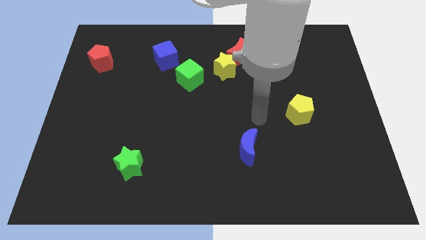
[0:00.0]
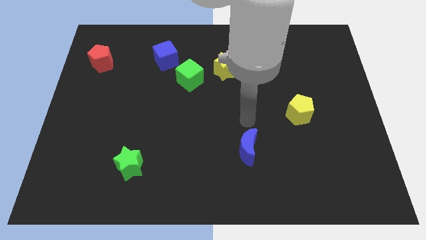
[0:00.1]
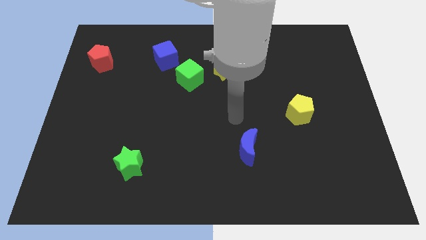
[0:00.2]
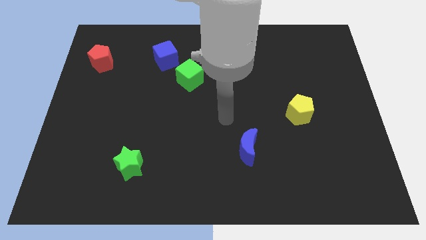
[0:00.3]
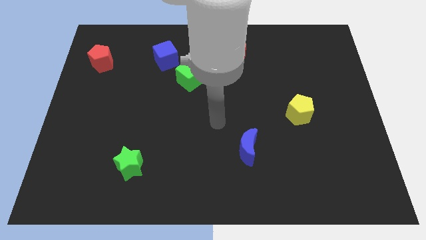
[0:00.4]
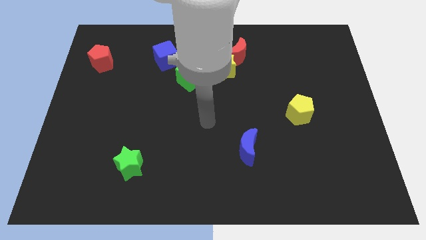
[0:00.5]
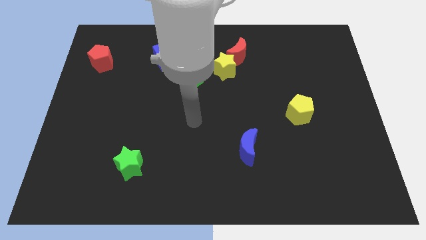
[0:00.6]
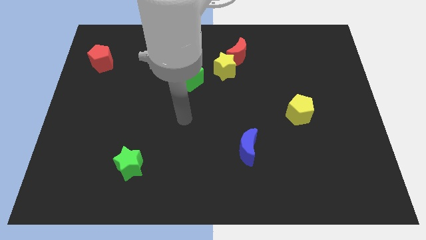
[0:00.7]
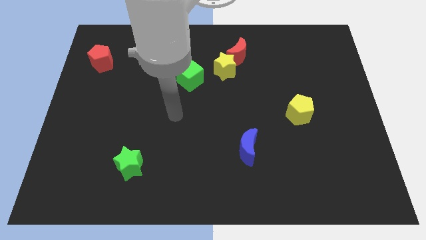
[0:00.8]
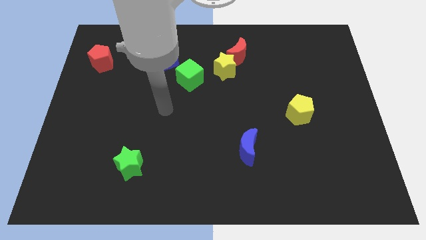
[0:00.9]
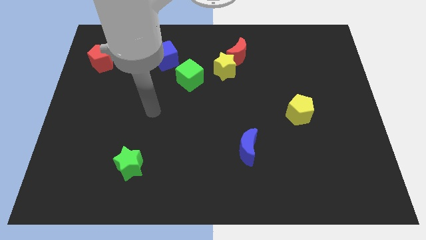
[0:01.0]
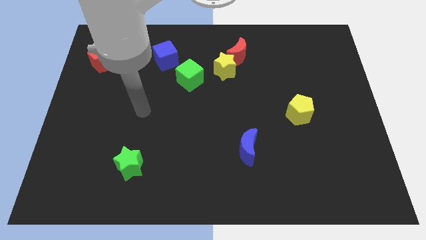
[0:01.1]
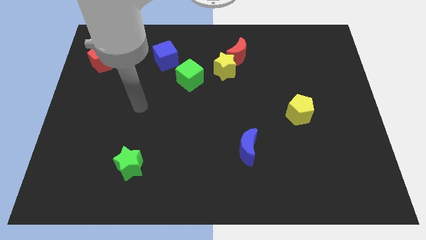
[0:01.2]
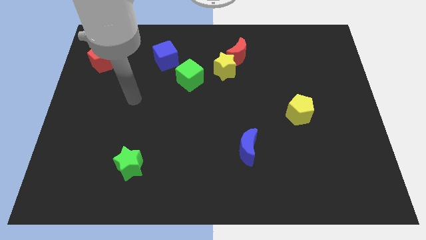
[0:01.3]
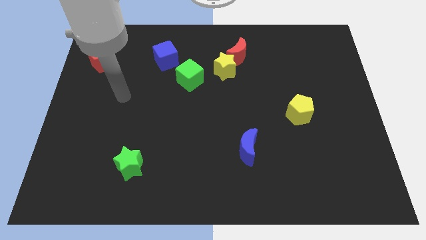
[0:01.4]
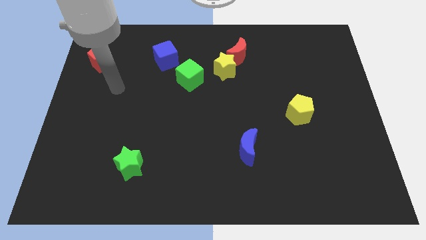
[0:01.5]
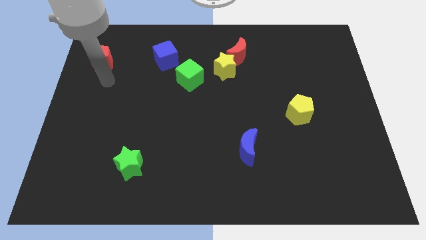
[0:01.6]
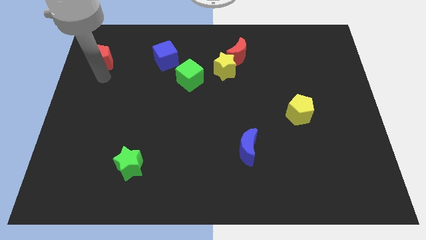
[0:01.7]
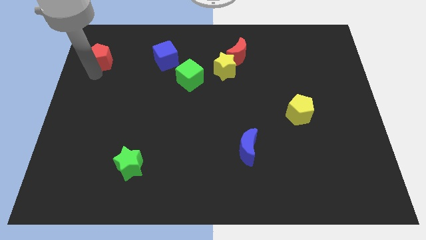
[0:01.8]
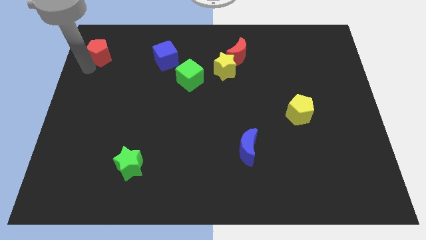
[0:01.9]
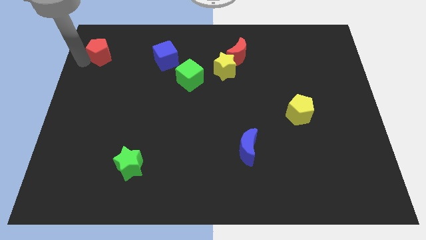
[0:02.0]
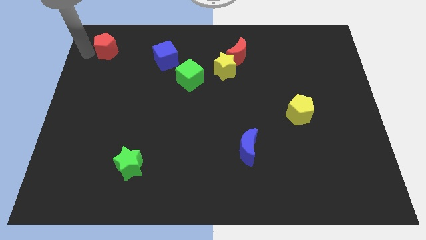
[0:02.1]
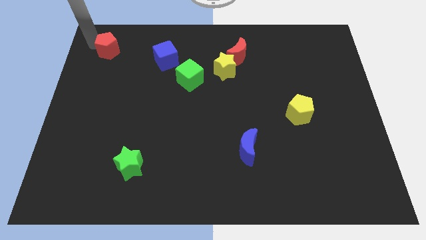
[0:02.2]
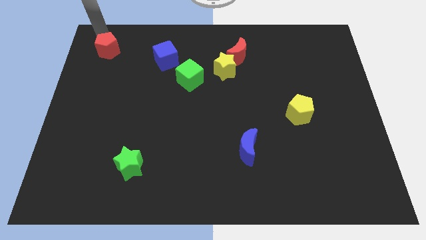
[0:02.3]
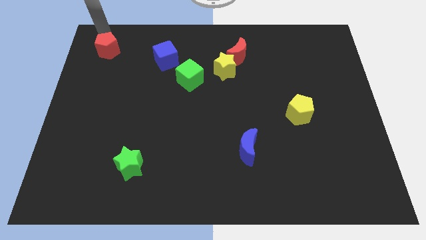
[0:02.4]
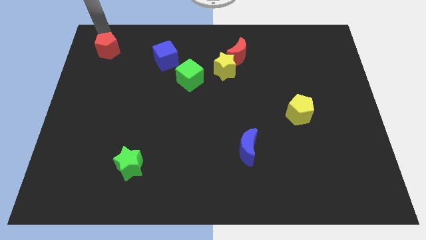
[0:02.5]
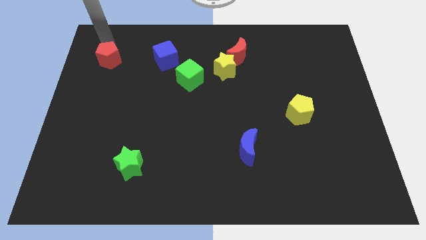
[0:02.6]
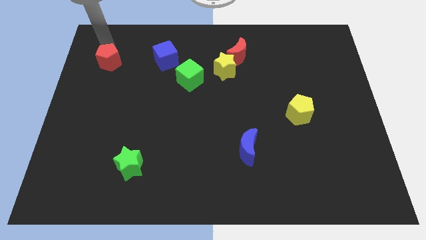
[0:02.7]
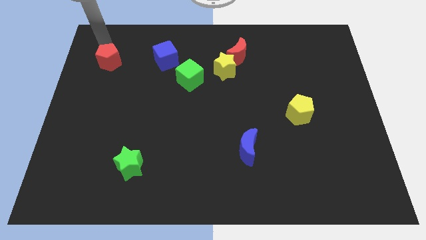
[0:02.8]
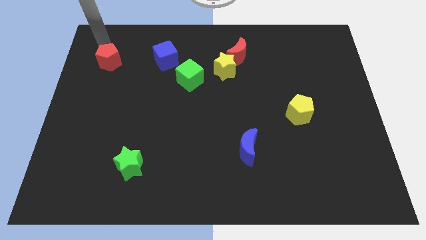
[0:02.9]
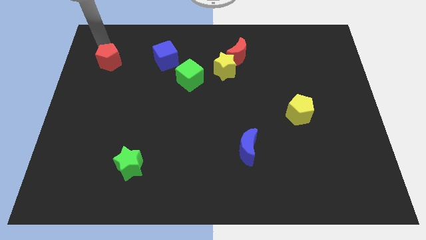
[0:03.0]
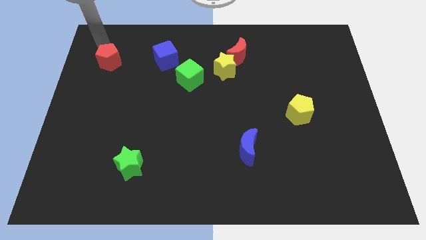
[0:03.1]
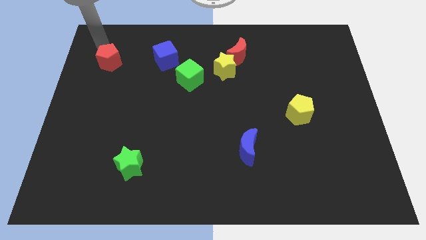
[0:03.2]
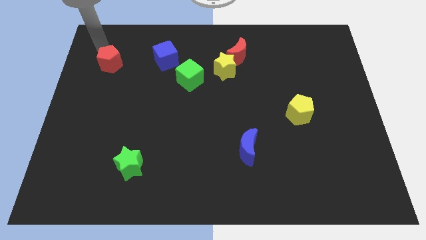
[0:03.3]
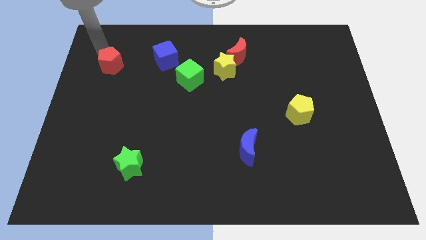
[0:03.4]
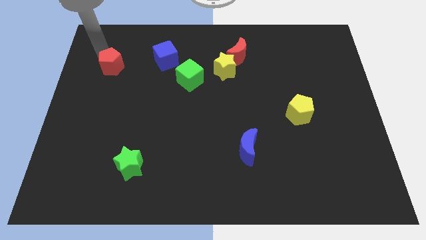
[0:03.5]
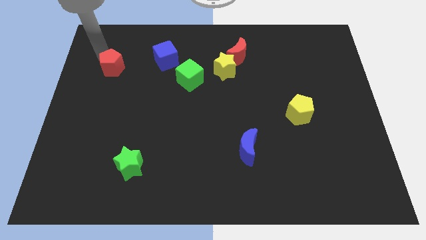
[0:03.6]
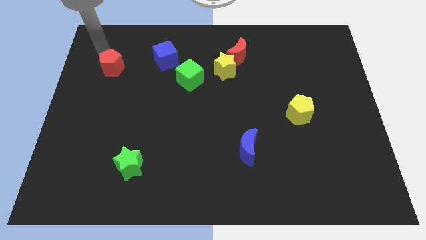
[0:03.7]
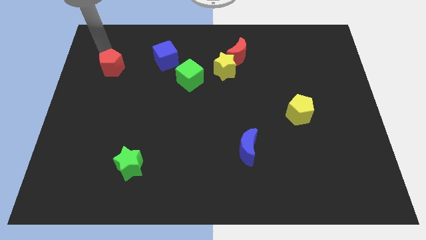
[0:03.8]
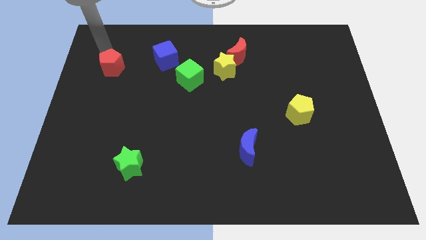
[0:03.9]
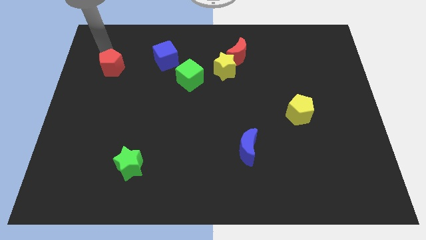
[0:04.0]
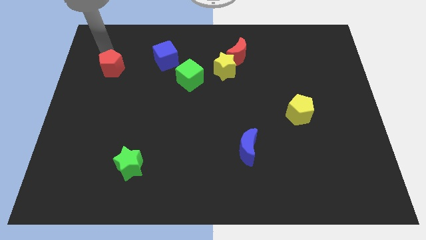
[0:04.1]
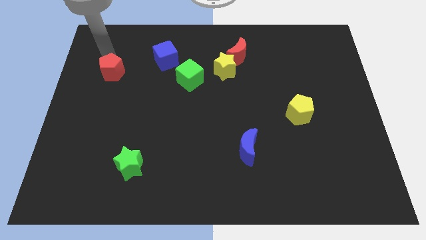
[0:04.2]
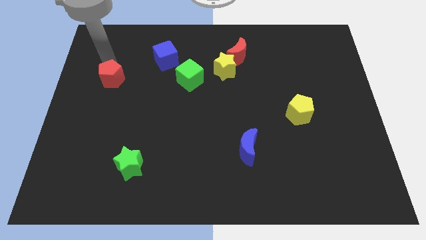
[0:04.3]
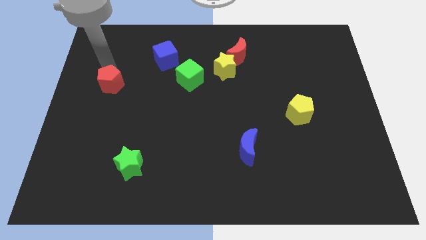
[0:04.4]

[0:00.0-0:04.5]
slightly push the red pentagon down and right

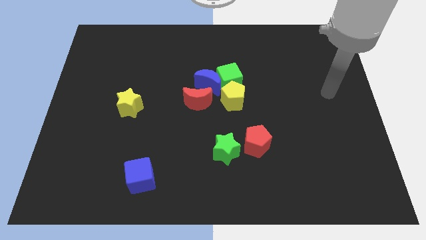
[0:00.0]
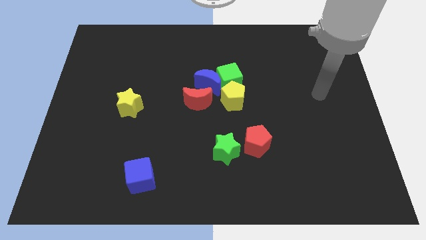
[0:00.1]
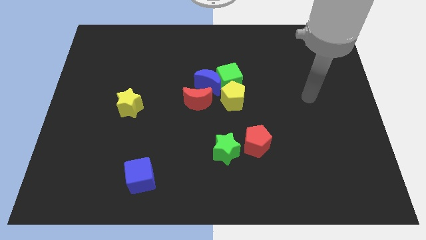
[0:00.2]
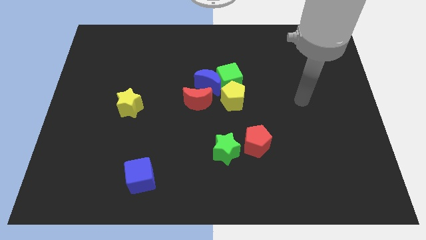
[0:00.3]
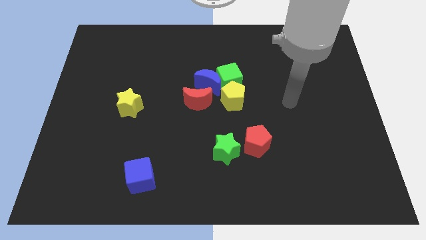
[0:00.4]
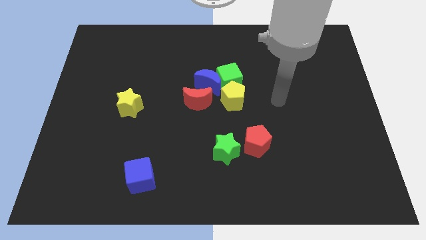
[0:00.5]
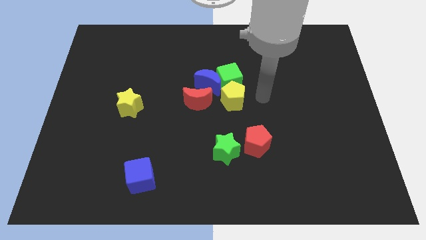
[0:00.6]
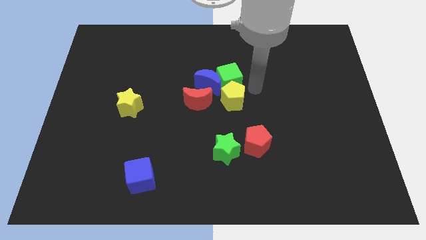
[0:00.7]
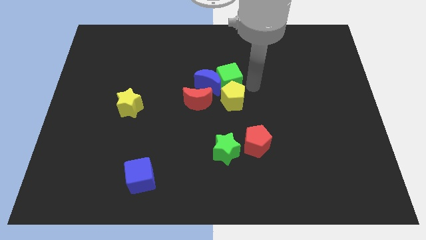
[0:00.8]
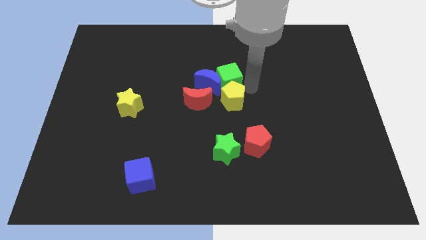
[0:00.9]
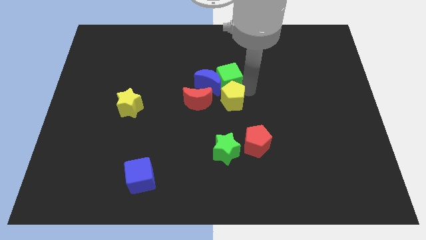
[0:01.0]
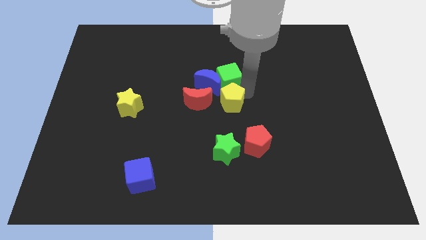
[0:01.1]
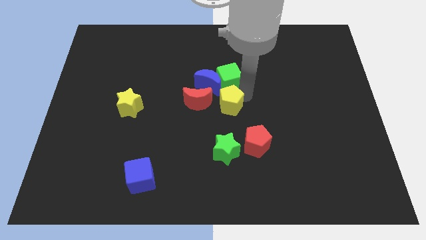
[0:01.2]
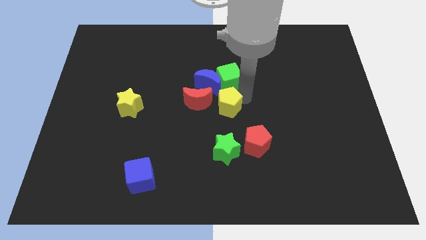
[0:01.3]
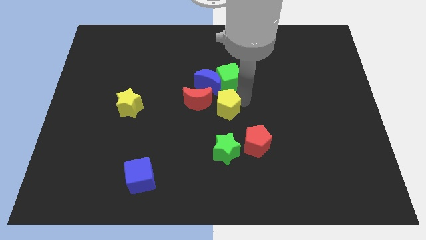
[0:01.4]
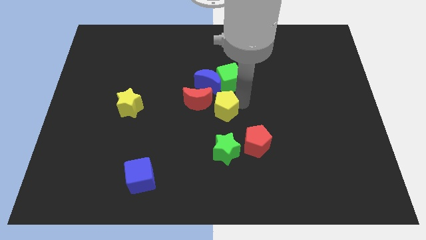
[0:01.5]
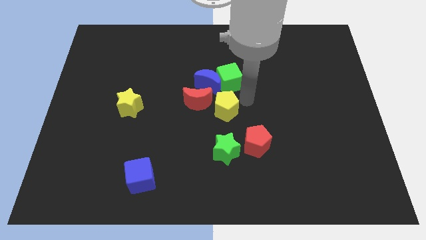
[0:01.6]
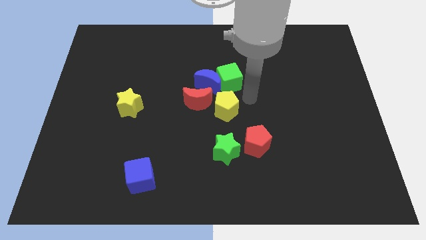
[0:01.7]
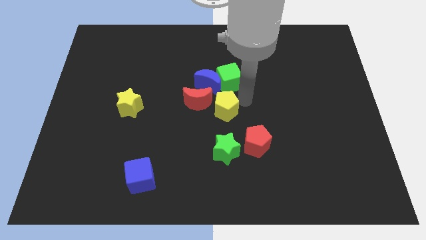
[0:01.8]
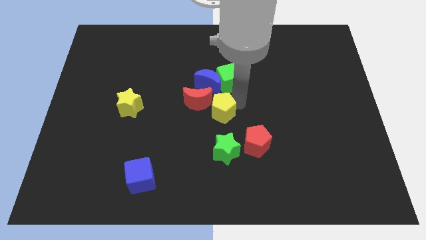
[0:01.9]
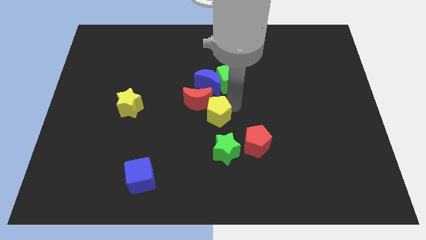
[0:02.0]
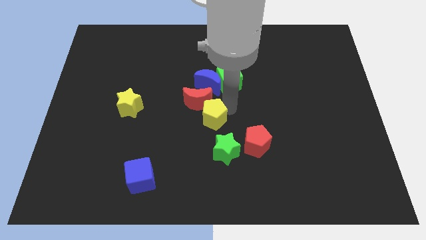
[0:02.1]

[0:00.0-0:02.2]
slide the yellow pentagon a little bit downwards and to the left diagonally

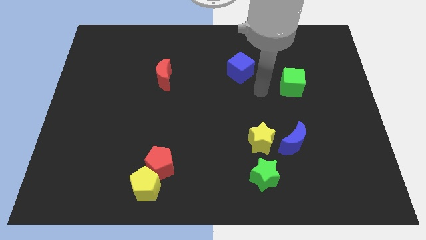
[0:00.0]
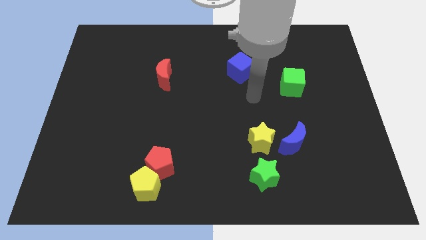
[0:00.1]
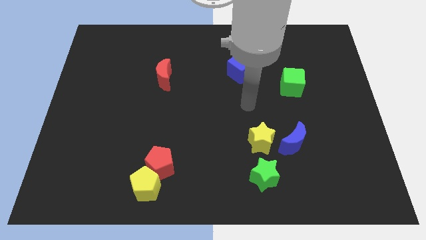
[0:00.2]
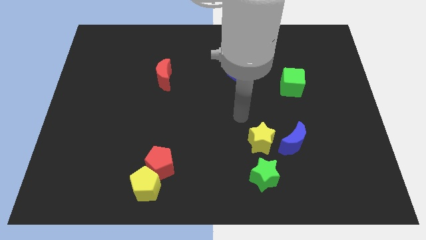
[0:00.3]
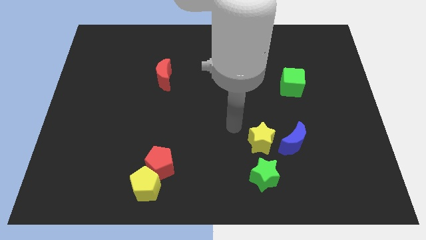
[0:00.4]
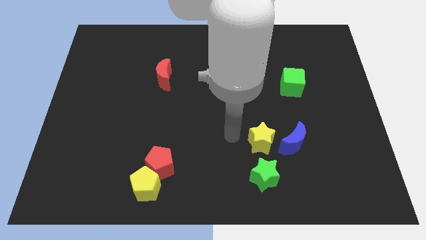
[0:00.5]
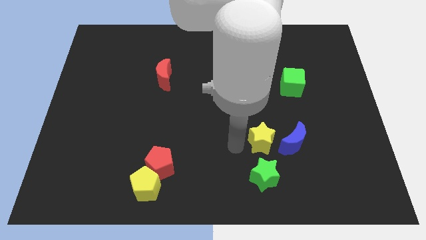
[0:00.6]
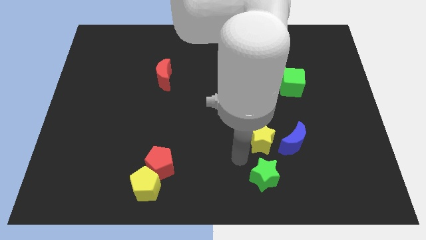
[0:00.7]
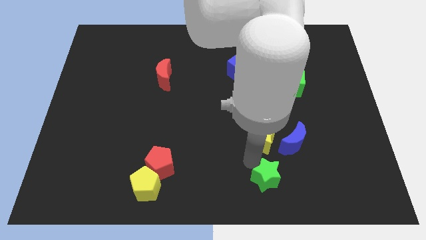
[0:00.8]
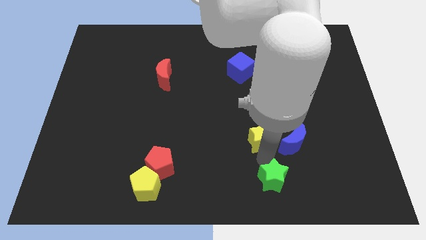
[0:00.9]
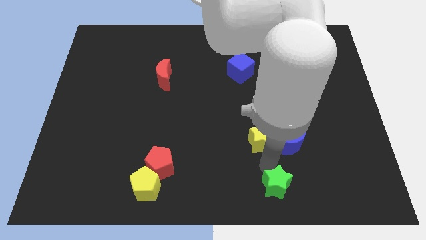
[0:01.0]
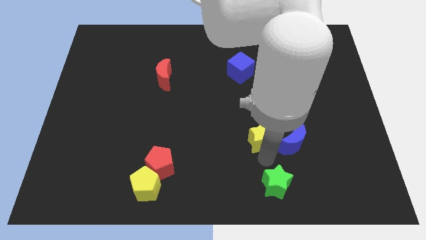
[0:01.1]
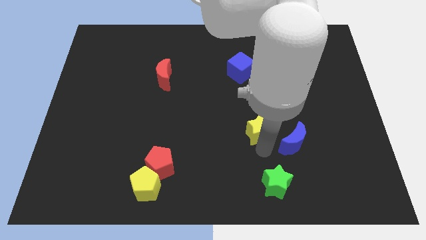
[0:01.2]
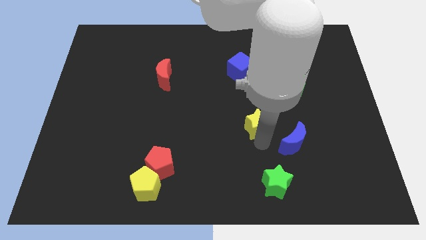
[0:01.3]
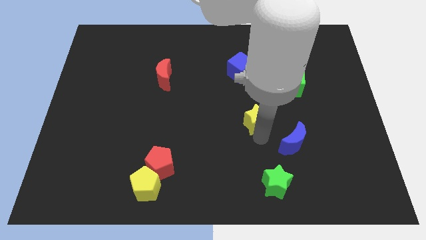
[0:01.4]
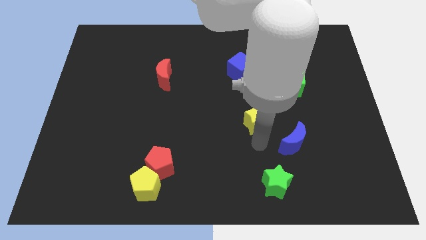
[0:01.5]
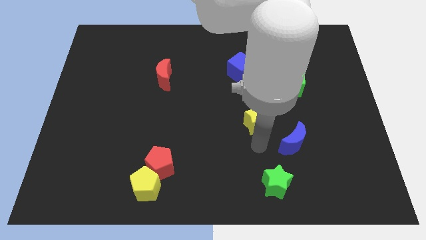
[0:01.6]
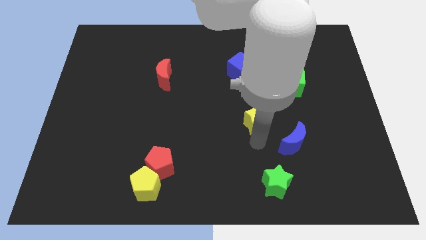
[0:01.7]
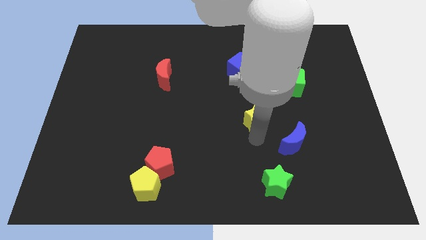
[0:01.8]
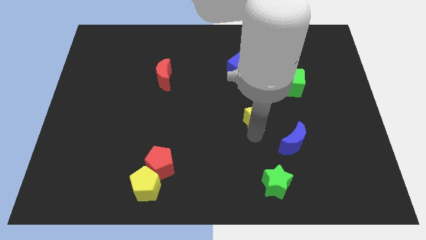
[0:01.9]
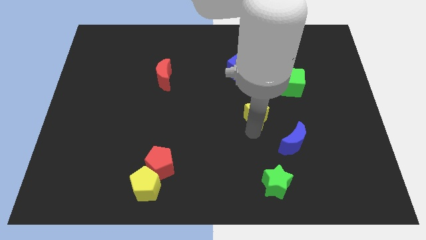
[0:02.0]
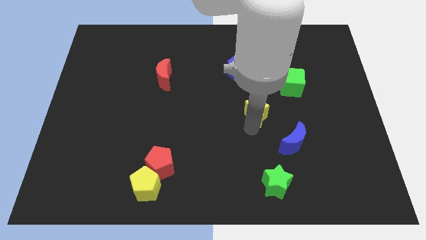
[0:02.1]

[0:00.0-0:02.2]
push the yellow star upwards a little
